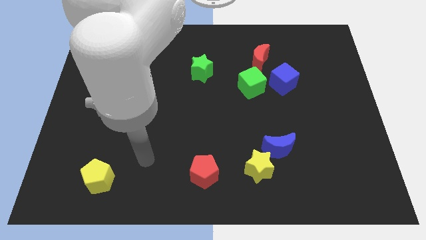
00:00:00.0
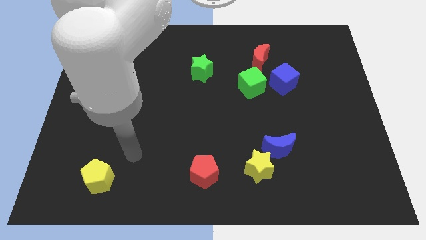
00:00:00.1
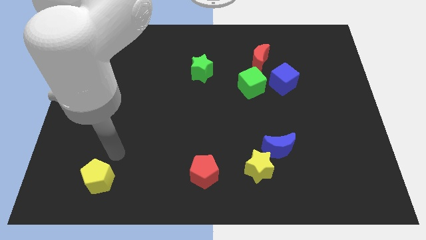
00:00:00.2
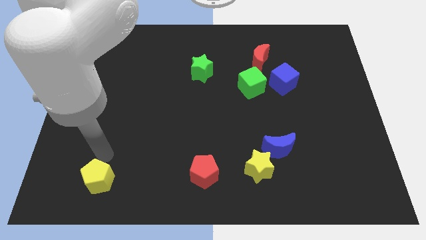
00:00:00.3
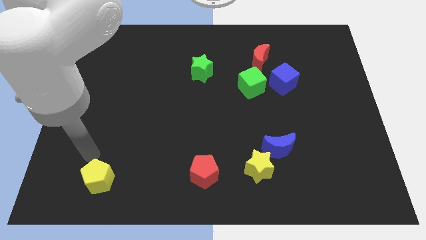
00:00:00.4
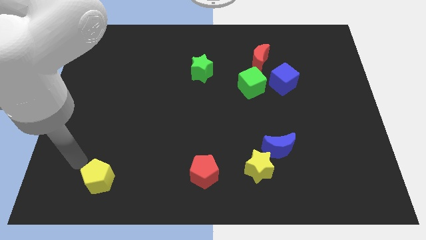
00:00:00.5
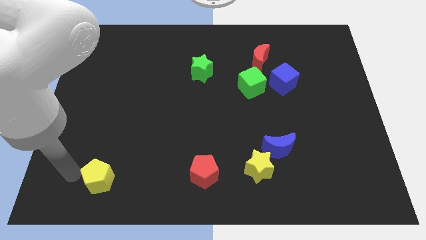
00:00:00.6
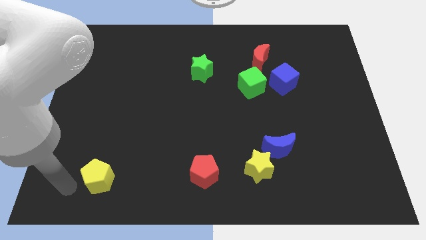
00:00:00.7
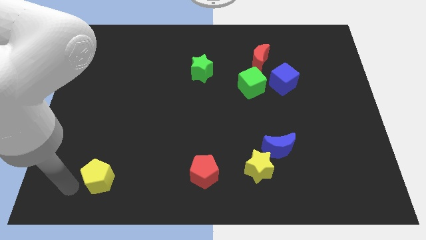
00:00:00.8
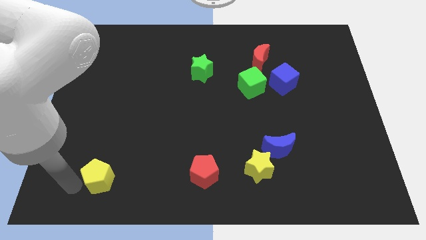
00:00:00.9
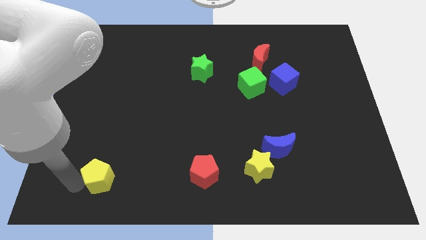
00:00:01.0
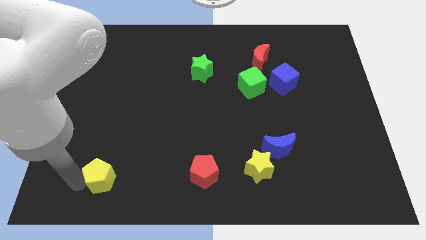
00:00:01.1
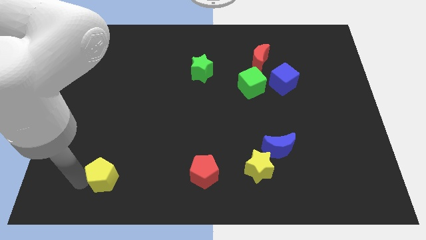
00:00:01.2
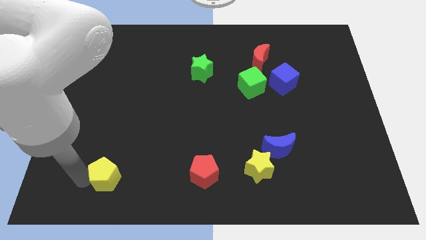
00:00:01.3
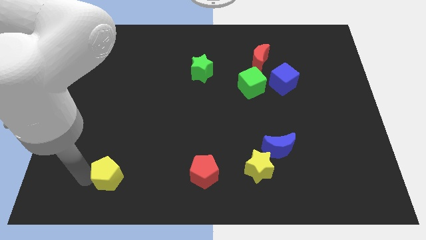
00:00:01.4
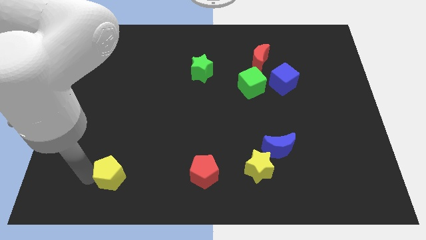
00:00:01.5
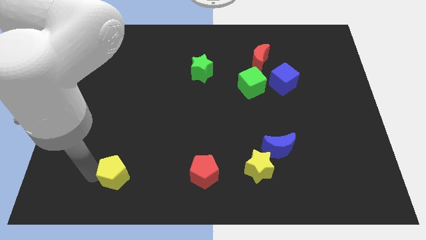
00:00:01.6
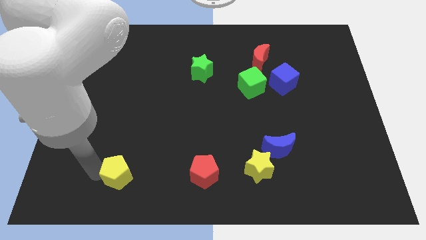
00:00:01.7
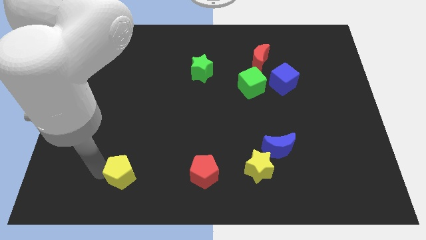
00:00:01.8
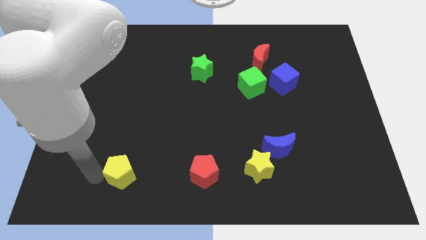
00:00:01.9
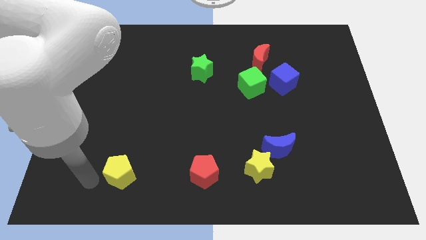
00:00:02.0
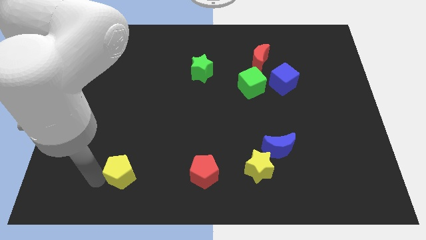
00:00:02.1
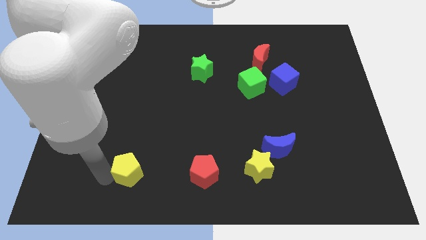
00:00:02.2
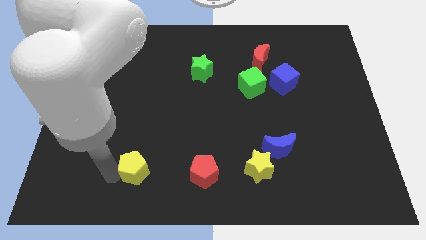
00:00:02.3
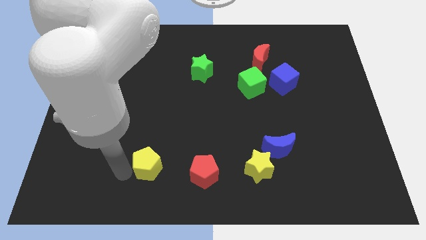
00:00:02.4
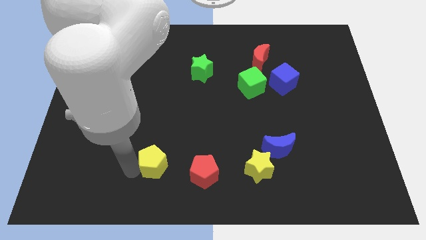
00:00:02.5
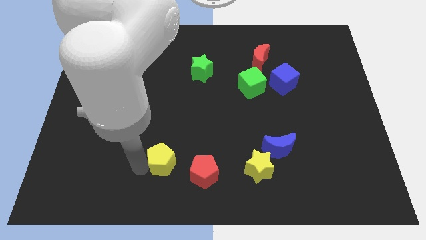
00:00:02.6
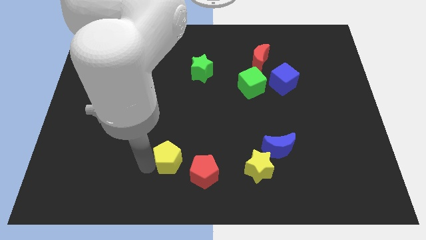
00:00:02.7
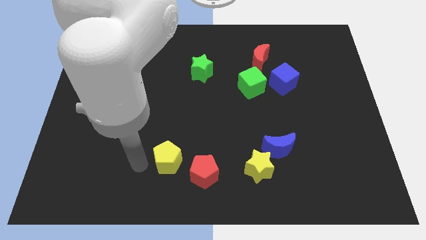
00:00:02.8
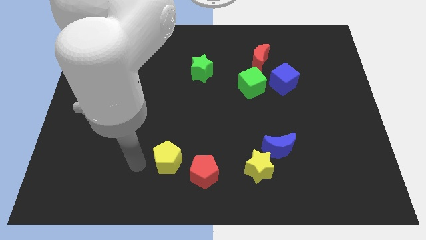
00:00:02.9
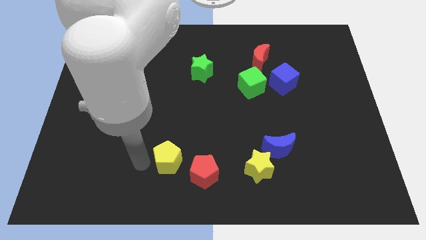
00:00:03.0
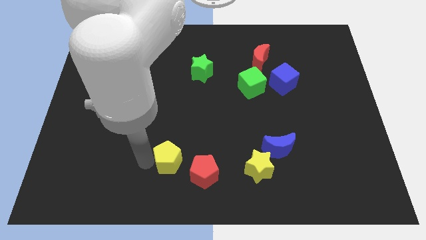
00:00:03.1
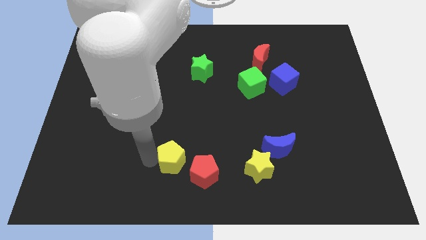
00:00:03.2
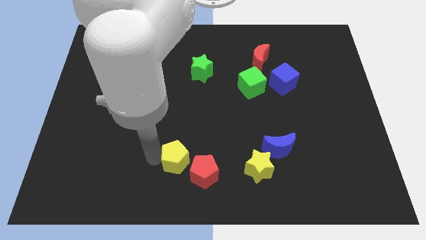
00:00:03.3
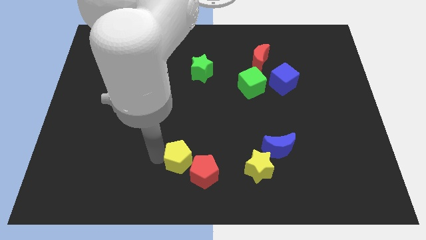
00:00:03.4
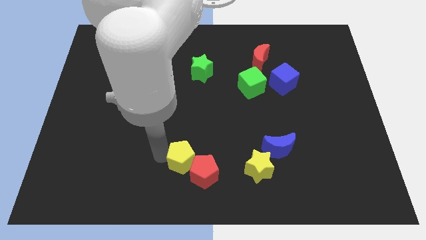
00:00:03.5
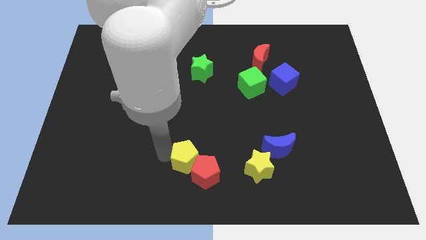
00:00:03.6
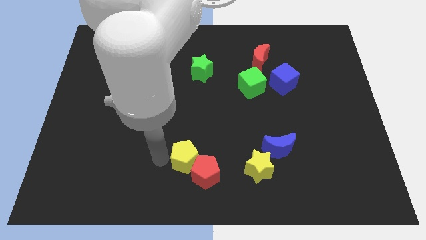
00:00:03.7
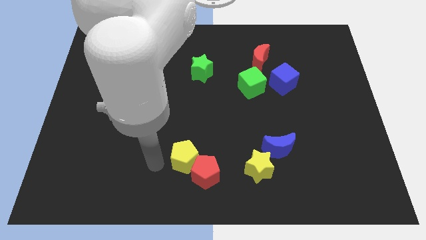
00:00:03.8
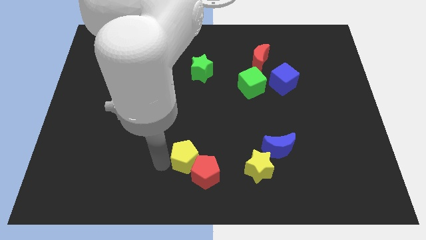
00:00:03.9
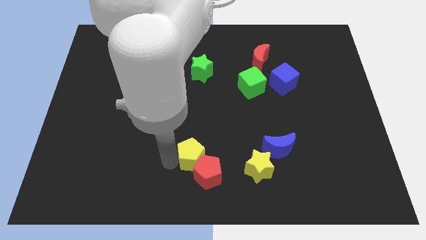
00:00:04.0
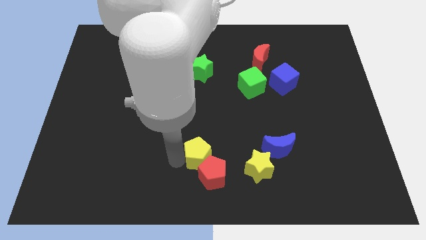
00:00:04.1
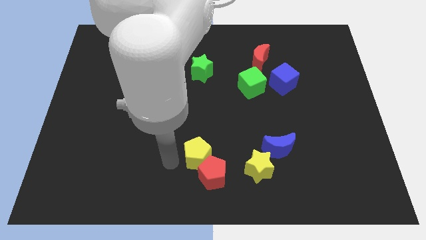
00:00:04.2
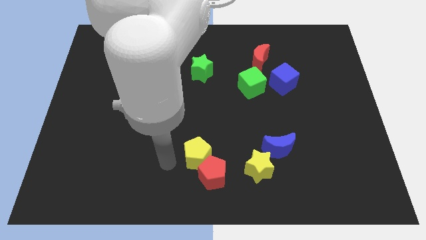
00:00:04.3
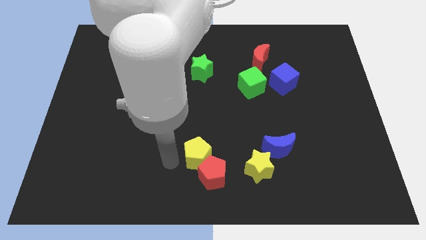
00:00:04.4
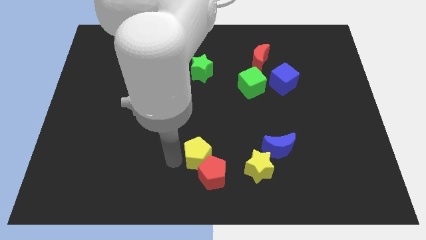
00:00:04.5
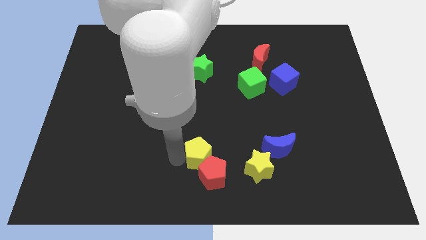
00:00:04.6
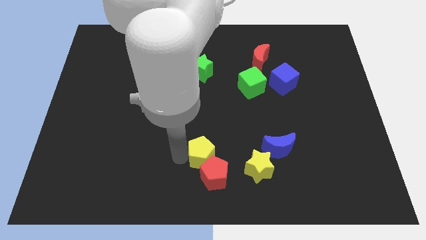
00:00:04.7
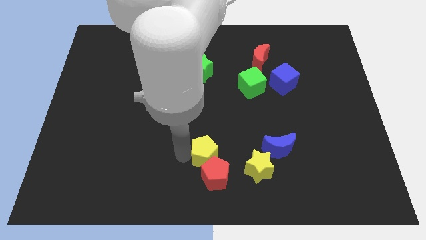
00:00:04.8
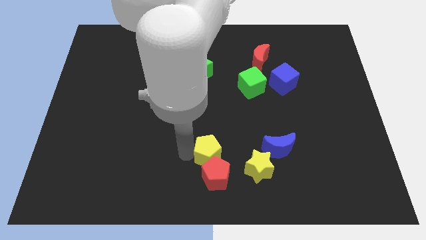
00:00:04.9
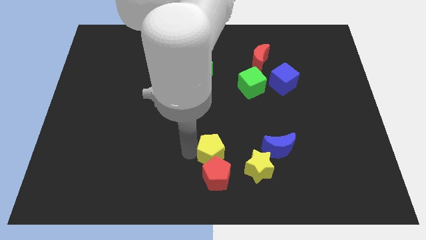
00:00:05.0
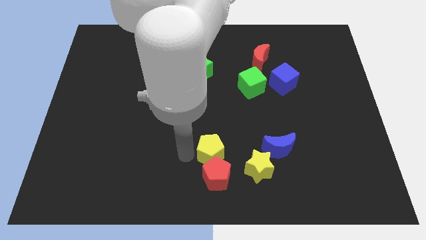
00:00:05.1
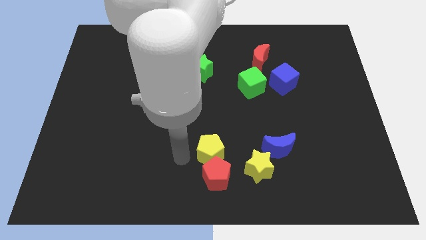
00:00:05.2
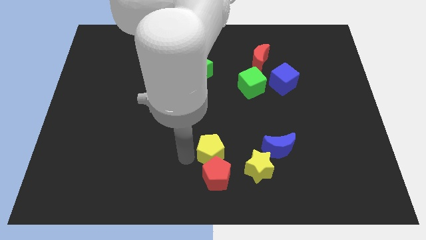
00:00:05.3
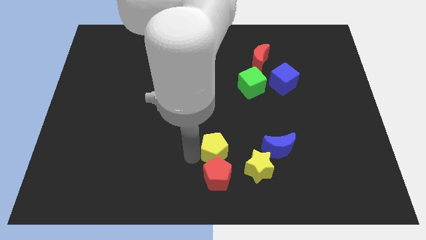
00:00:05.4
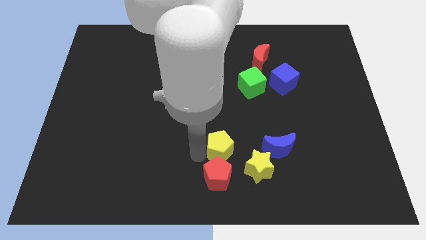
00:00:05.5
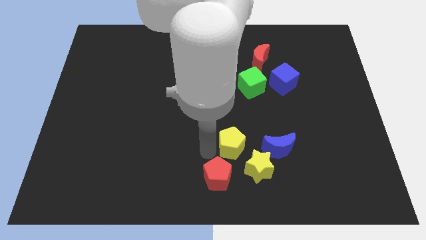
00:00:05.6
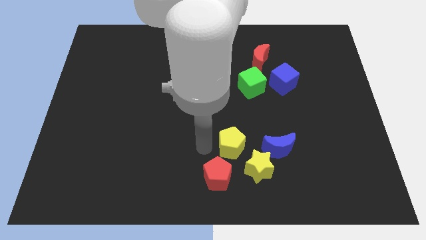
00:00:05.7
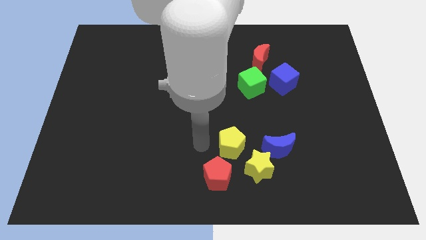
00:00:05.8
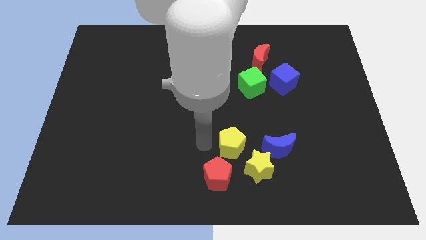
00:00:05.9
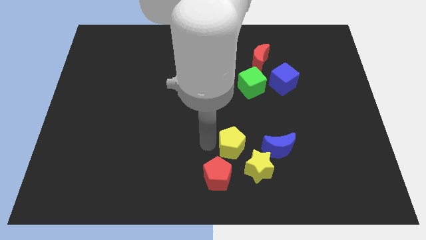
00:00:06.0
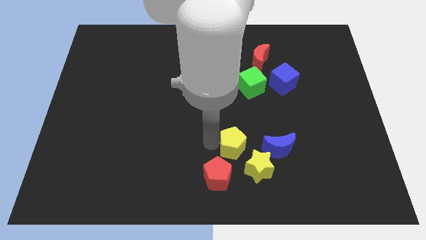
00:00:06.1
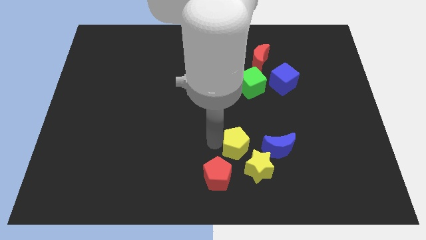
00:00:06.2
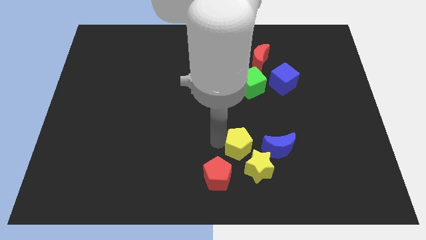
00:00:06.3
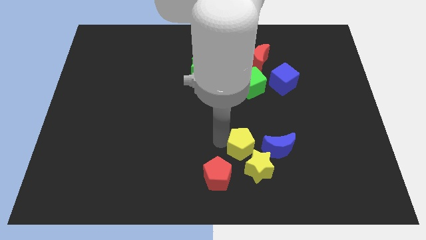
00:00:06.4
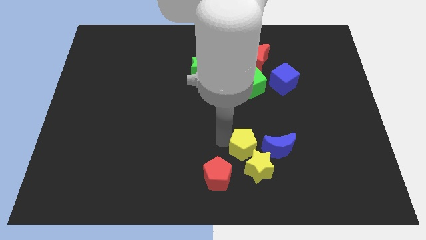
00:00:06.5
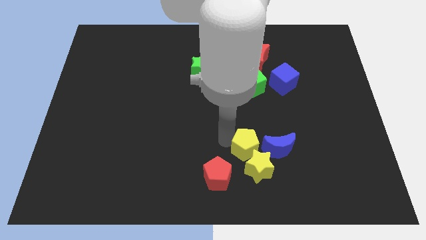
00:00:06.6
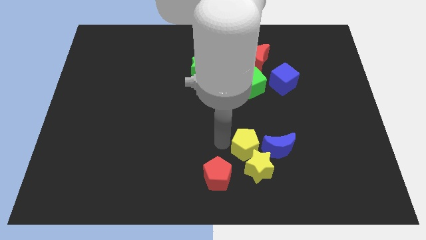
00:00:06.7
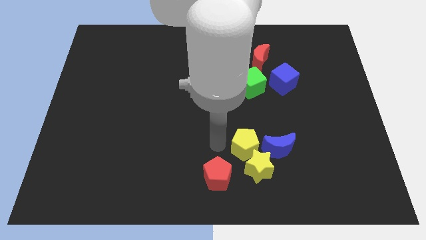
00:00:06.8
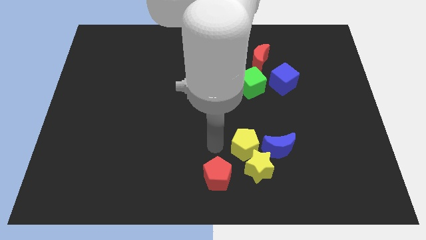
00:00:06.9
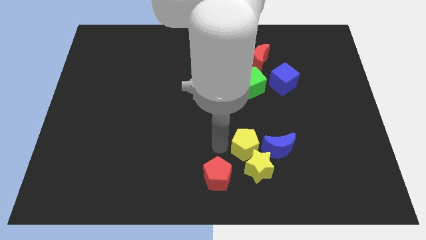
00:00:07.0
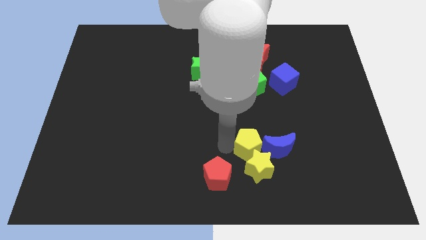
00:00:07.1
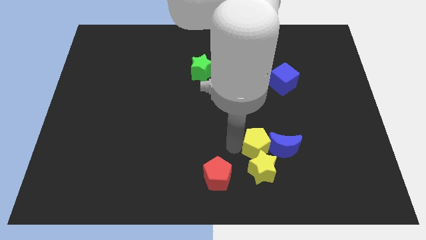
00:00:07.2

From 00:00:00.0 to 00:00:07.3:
slide the yellow pentagon next to the blue moon

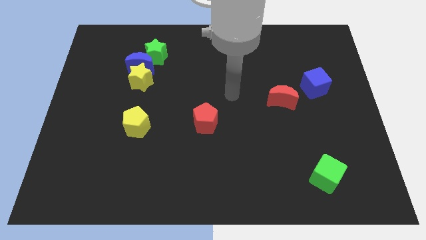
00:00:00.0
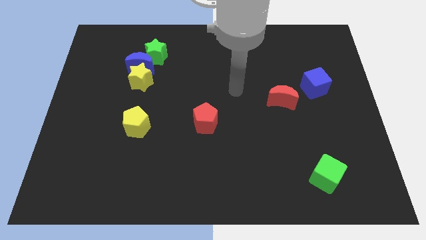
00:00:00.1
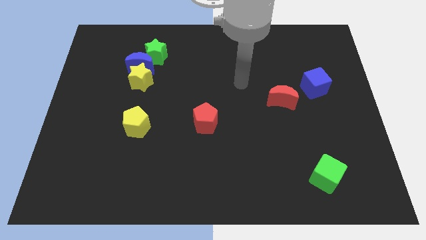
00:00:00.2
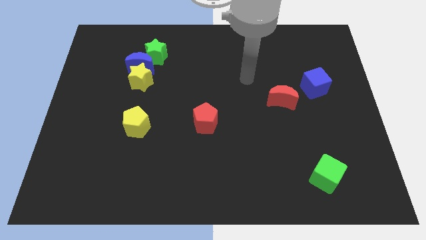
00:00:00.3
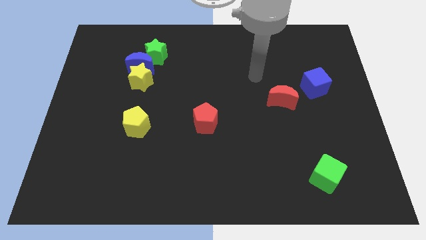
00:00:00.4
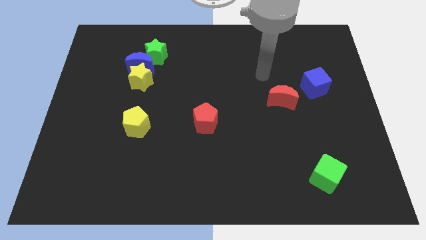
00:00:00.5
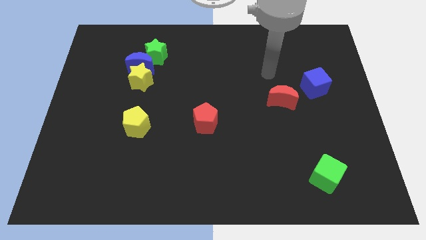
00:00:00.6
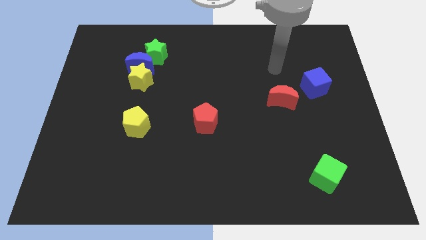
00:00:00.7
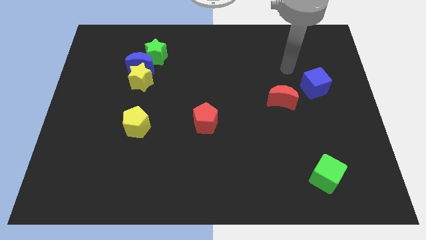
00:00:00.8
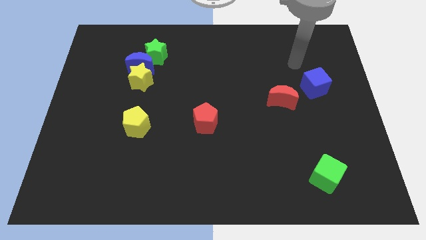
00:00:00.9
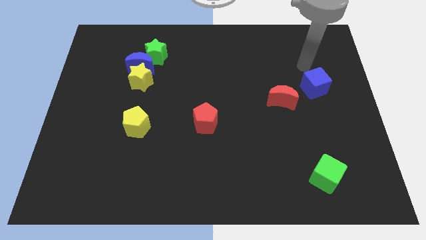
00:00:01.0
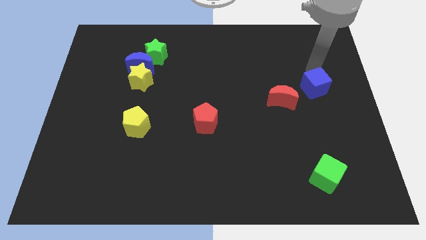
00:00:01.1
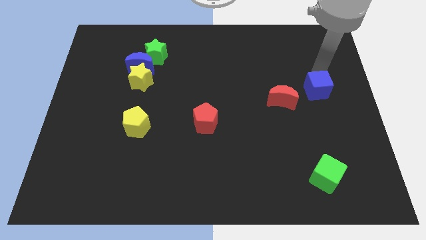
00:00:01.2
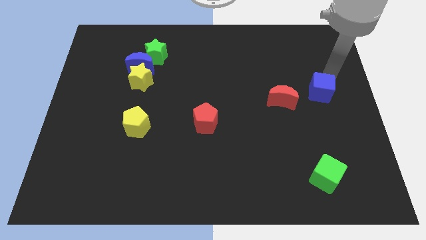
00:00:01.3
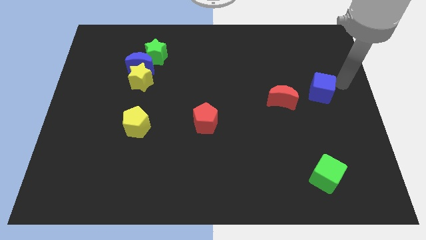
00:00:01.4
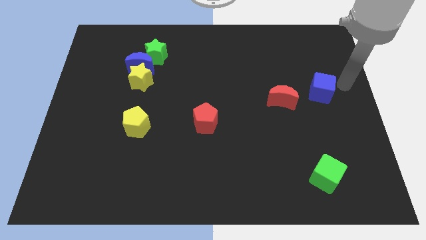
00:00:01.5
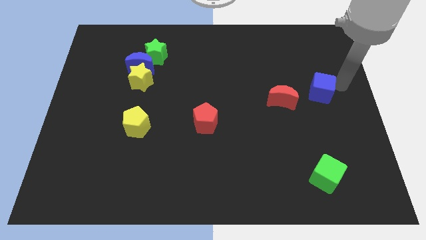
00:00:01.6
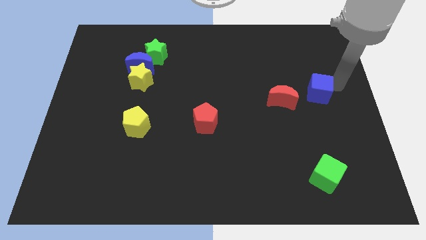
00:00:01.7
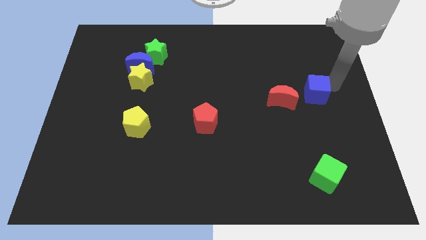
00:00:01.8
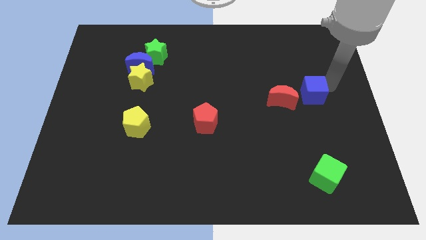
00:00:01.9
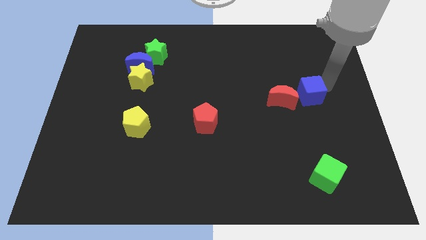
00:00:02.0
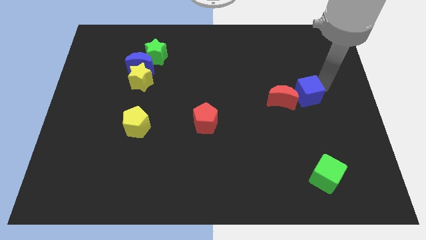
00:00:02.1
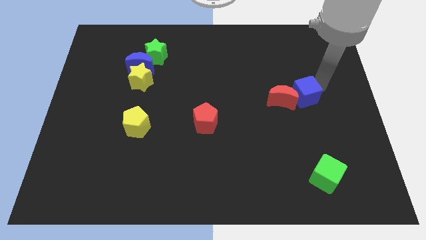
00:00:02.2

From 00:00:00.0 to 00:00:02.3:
slide the blue cube close to the red moon
